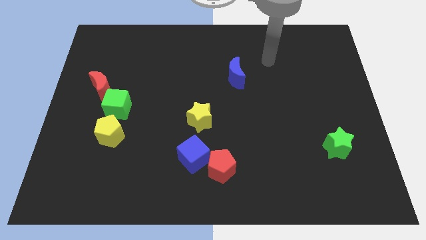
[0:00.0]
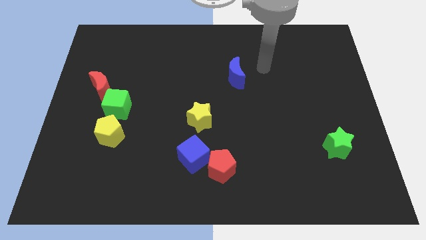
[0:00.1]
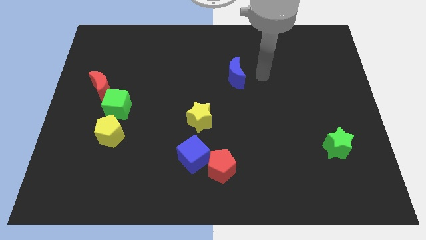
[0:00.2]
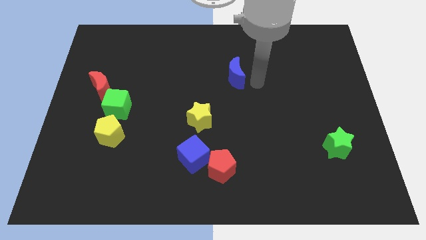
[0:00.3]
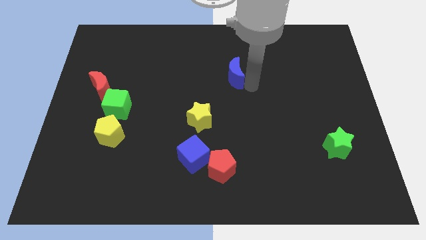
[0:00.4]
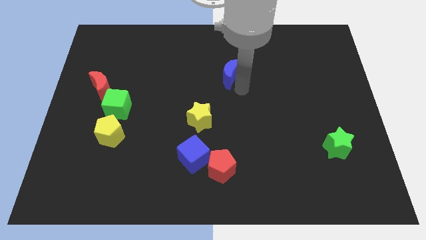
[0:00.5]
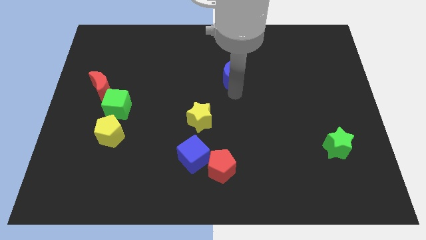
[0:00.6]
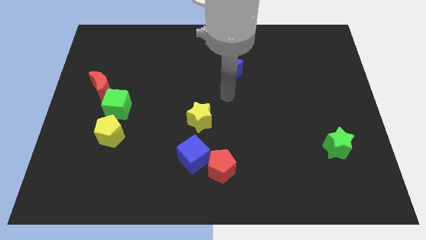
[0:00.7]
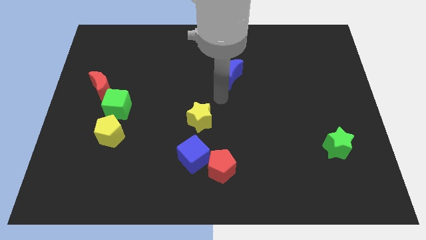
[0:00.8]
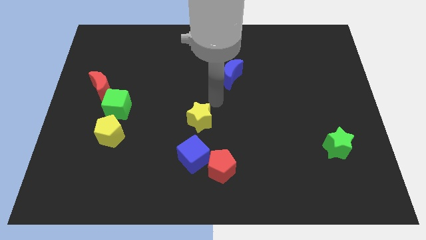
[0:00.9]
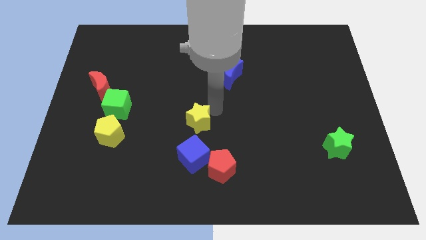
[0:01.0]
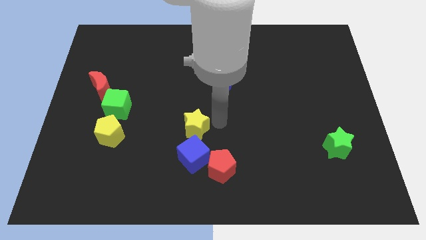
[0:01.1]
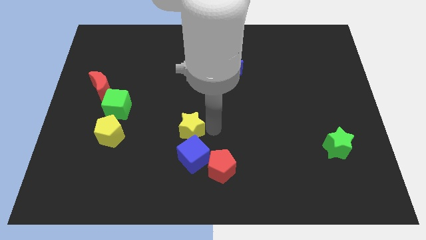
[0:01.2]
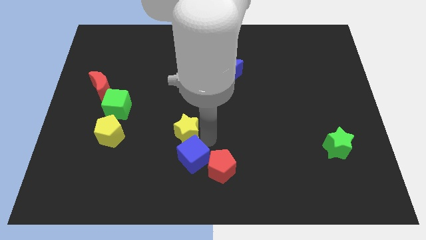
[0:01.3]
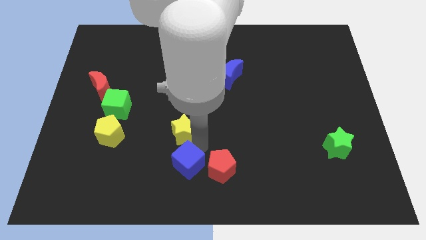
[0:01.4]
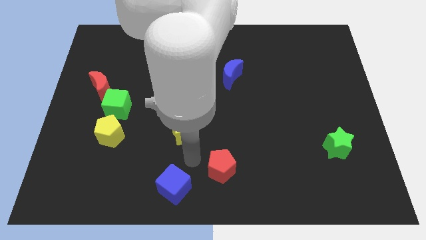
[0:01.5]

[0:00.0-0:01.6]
pull the red pentagon apart from the blue cube

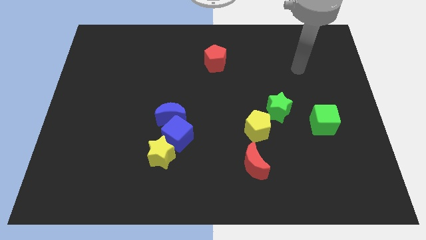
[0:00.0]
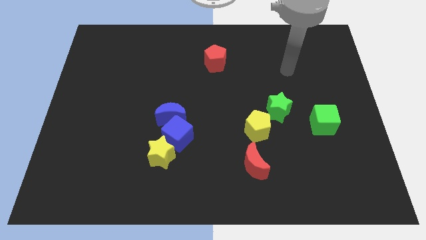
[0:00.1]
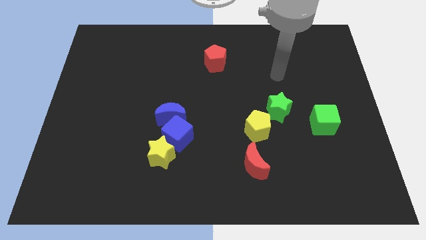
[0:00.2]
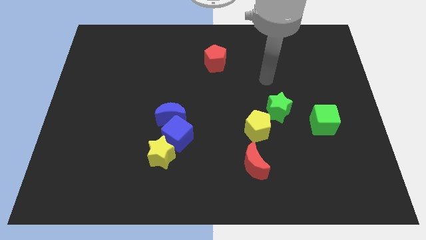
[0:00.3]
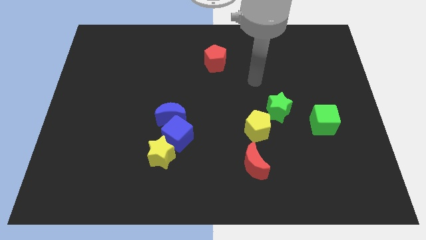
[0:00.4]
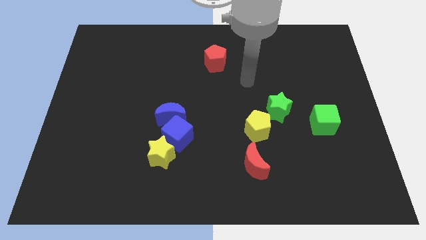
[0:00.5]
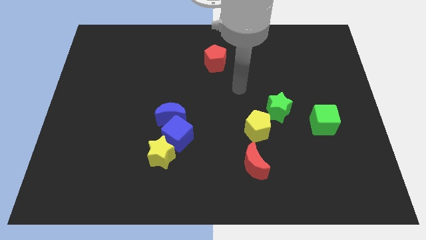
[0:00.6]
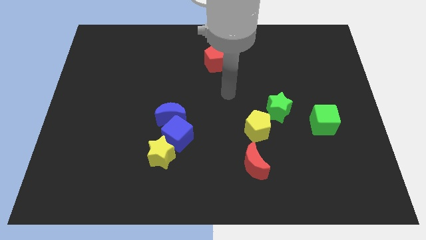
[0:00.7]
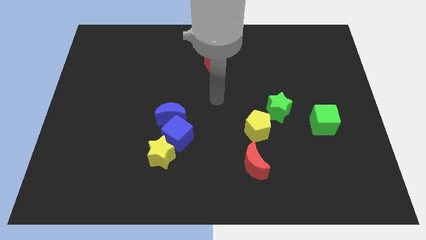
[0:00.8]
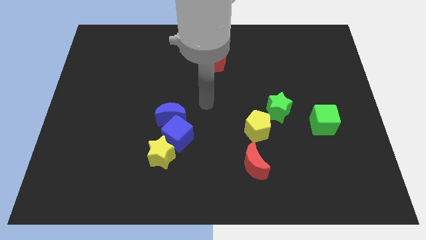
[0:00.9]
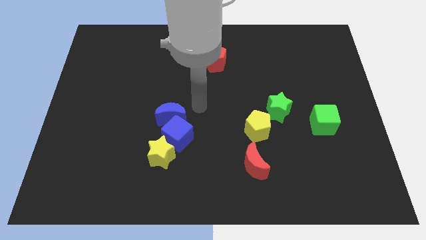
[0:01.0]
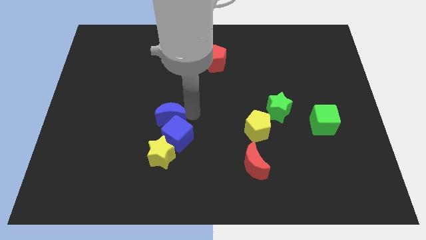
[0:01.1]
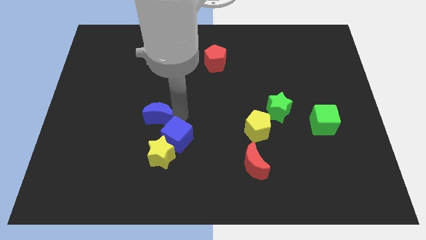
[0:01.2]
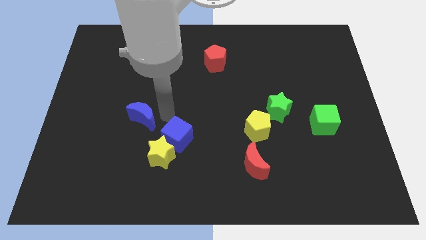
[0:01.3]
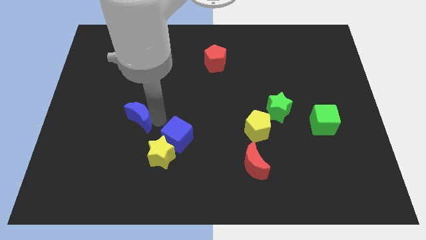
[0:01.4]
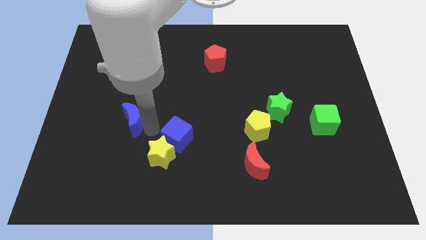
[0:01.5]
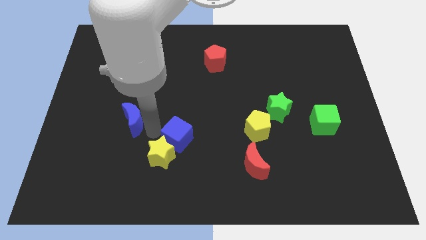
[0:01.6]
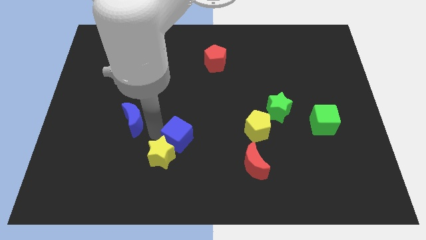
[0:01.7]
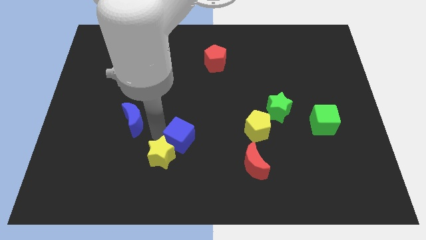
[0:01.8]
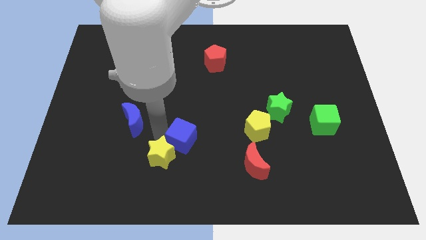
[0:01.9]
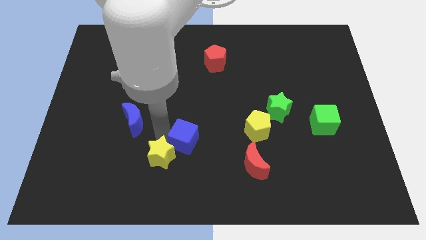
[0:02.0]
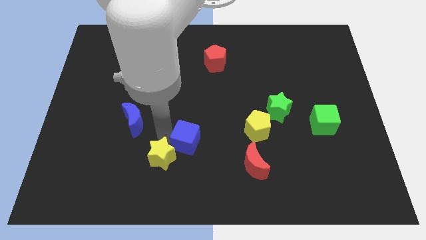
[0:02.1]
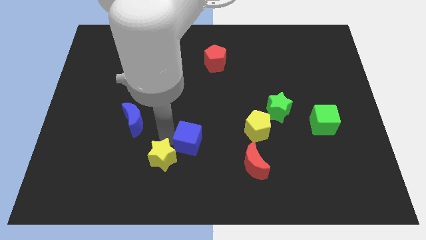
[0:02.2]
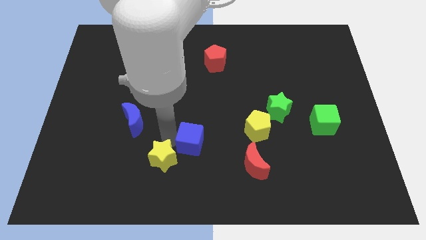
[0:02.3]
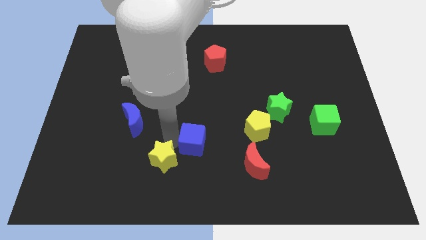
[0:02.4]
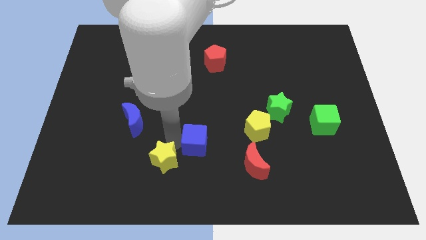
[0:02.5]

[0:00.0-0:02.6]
pull the blue cube apart from the blue moon and yellow star

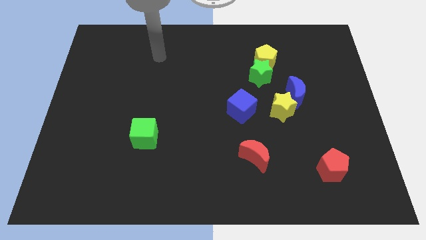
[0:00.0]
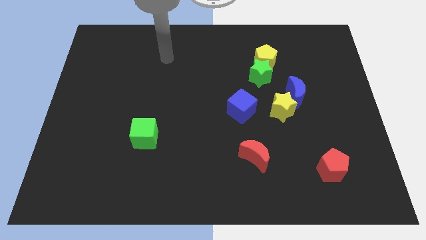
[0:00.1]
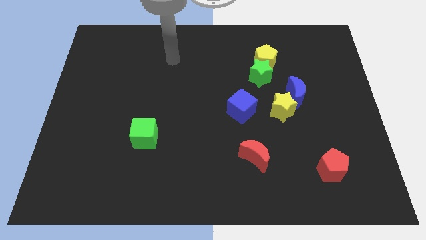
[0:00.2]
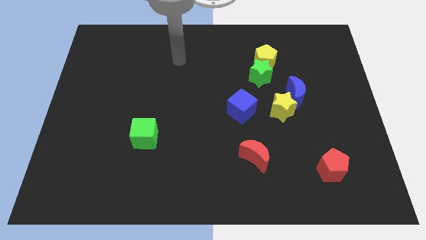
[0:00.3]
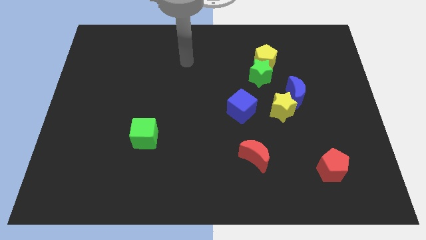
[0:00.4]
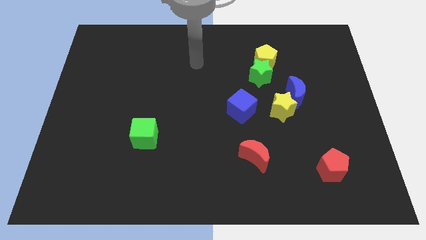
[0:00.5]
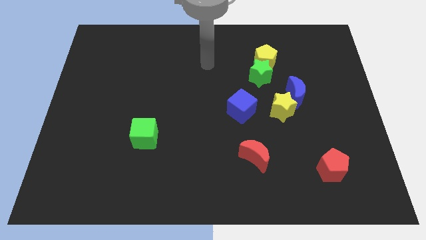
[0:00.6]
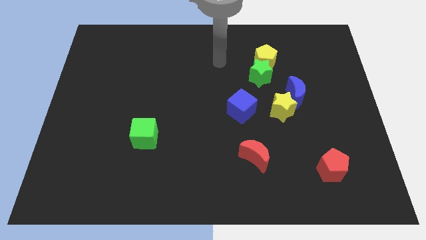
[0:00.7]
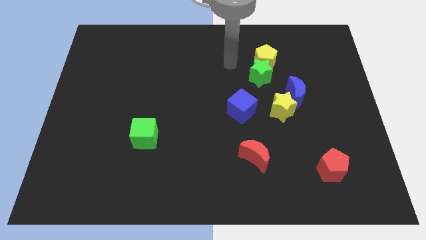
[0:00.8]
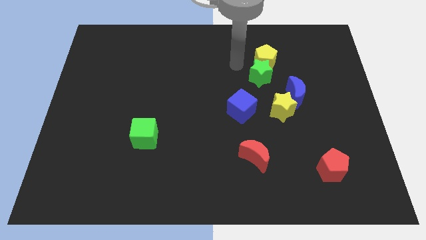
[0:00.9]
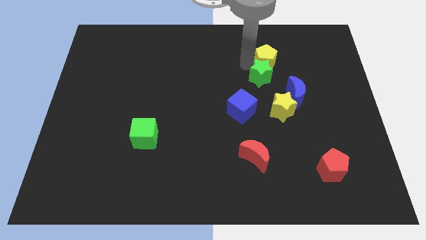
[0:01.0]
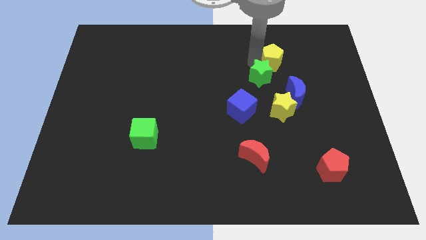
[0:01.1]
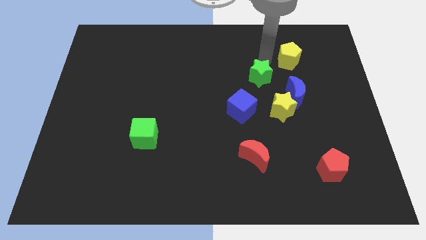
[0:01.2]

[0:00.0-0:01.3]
separate the green star from the yellow pentagon

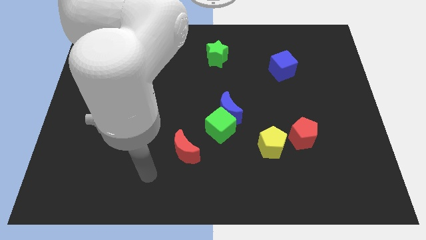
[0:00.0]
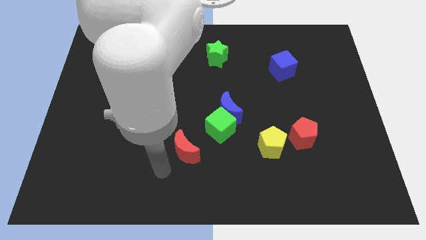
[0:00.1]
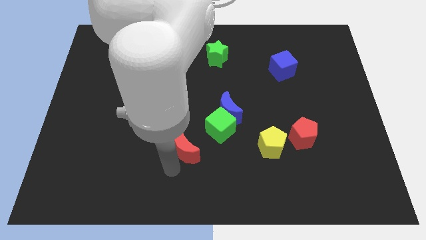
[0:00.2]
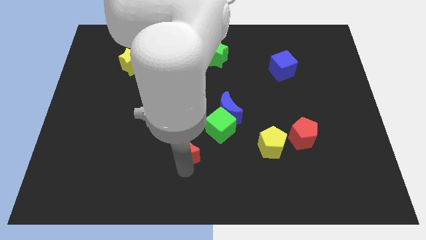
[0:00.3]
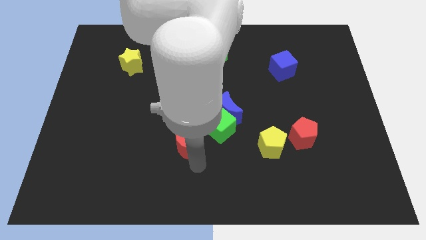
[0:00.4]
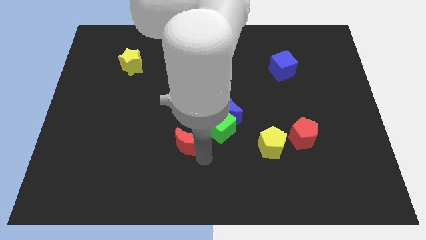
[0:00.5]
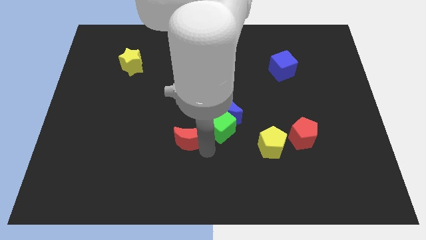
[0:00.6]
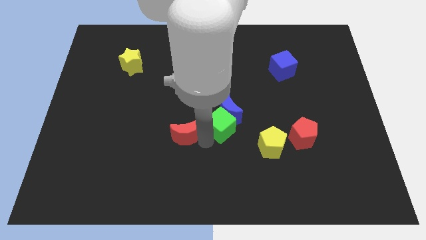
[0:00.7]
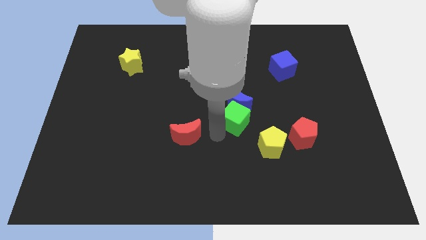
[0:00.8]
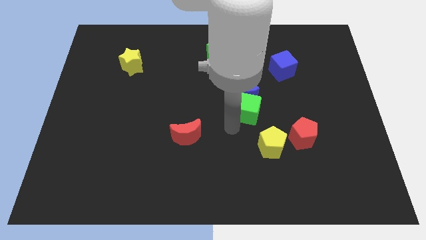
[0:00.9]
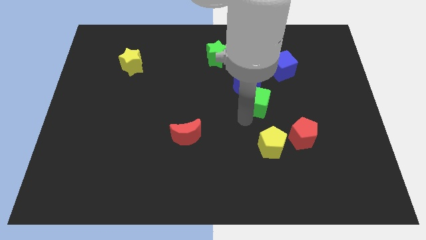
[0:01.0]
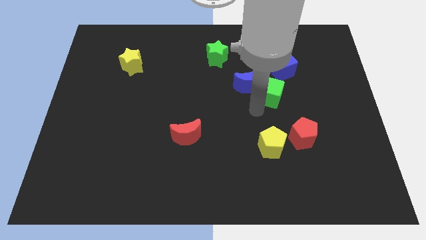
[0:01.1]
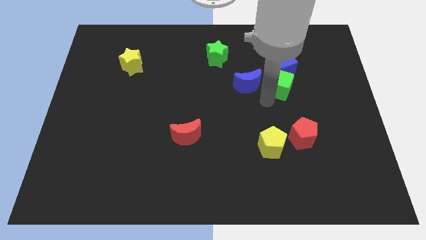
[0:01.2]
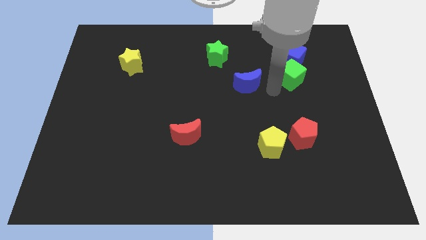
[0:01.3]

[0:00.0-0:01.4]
pull the blue moon apart from the green cube

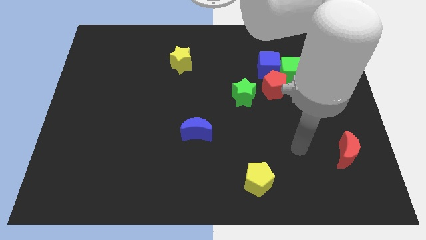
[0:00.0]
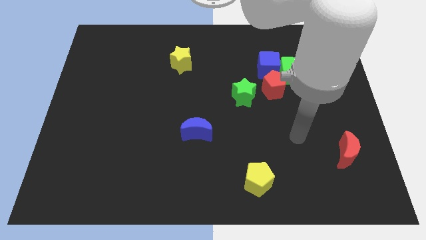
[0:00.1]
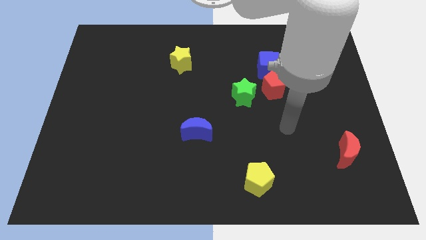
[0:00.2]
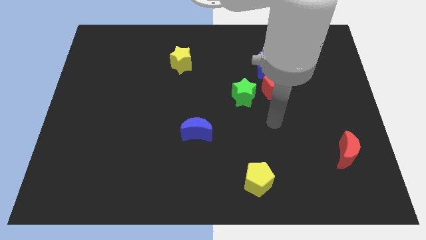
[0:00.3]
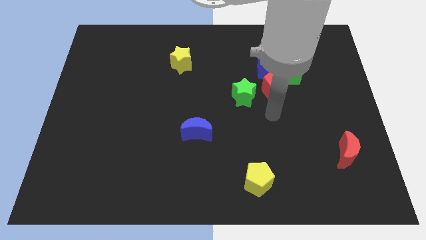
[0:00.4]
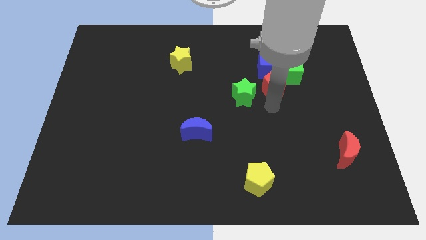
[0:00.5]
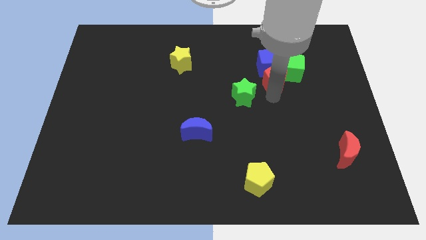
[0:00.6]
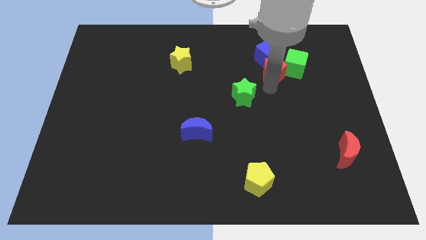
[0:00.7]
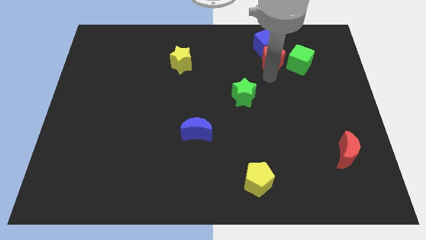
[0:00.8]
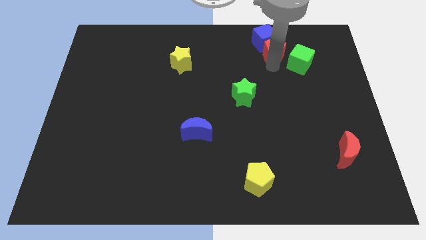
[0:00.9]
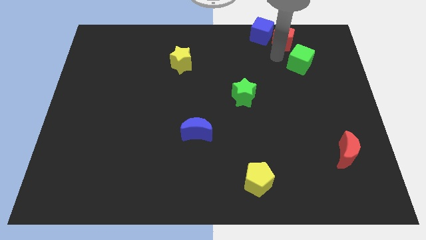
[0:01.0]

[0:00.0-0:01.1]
move the green cube away from the blue cube and red pentagon

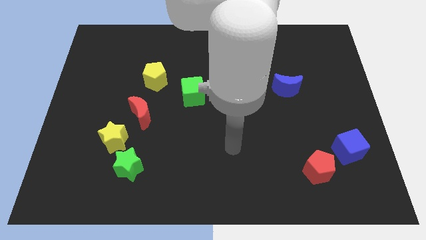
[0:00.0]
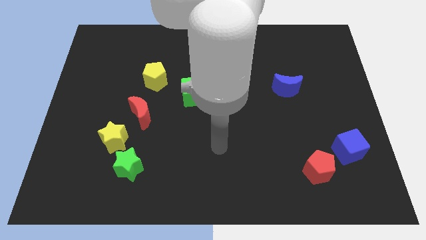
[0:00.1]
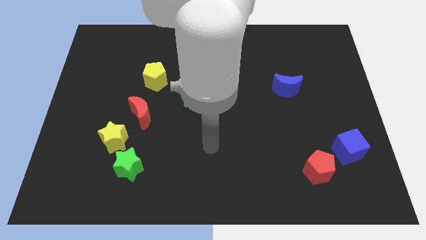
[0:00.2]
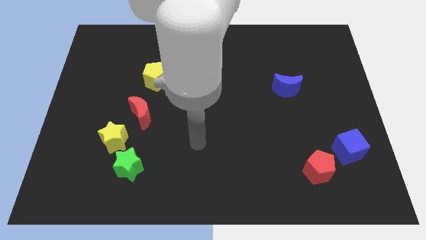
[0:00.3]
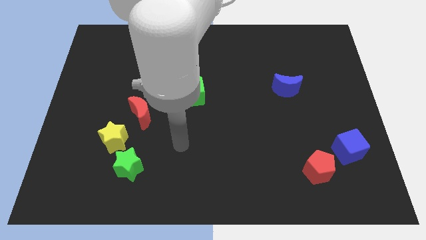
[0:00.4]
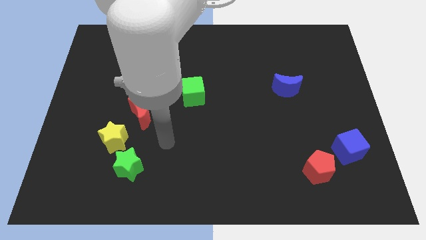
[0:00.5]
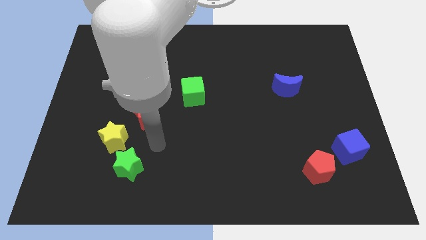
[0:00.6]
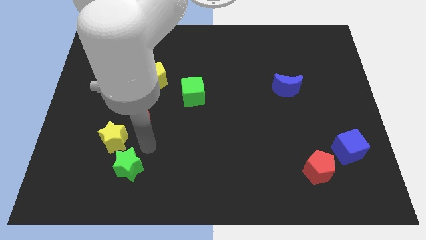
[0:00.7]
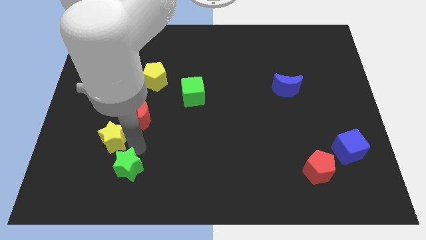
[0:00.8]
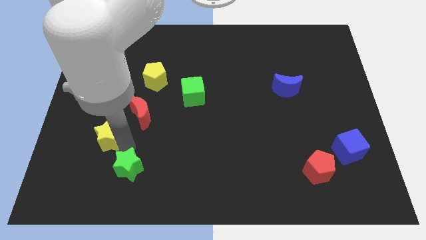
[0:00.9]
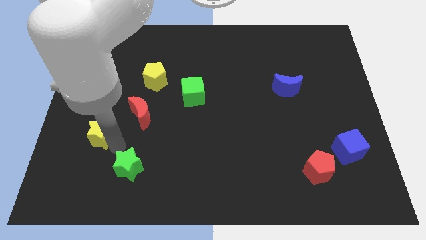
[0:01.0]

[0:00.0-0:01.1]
pull the green star apart from the yellow star

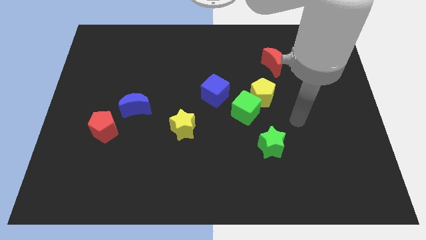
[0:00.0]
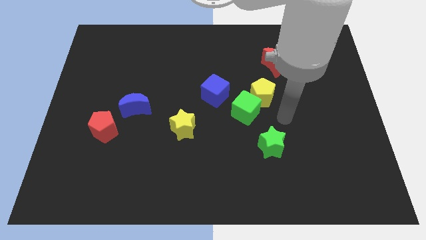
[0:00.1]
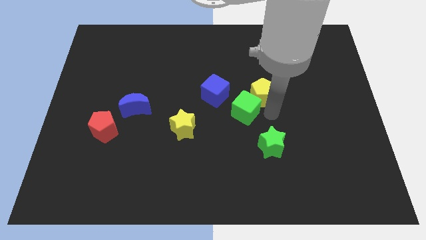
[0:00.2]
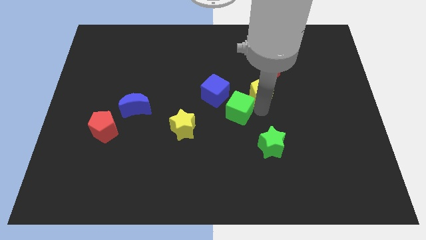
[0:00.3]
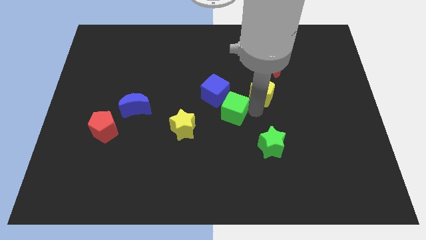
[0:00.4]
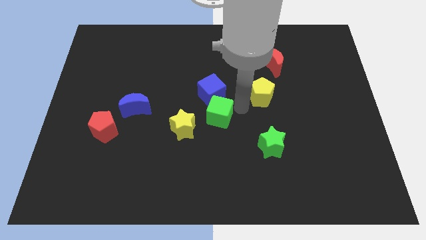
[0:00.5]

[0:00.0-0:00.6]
move the yellow pentagon away from the green cube
